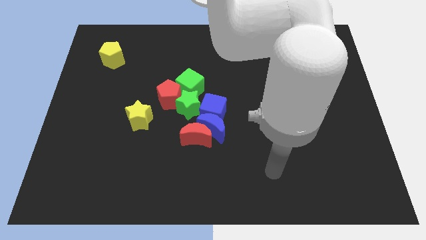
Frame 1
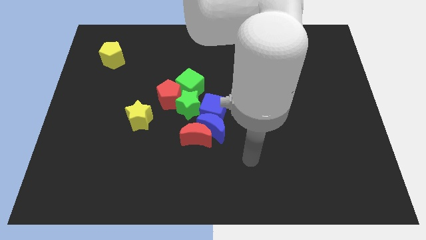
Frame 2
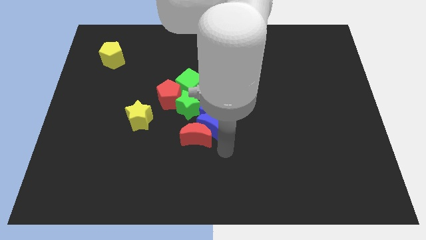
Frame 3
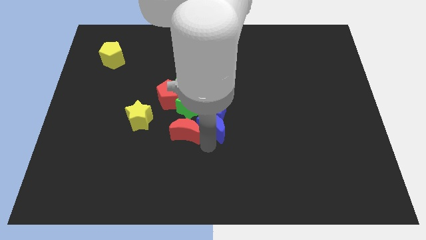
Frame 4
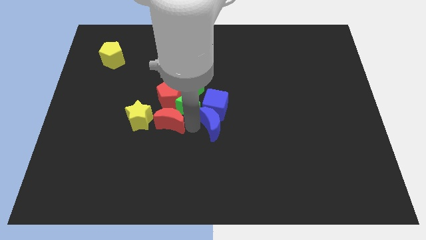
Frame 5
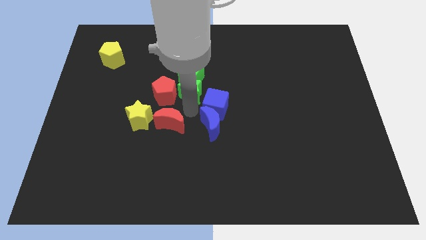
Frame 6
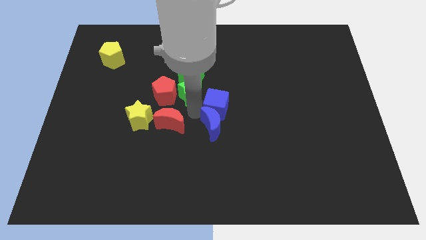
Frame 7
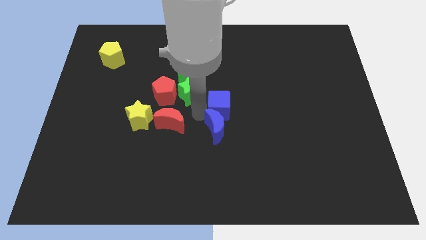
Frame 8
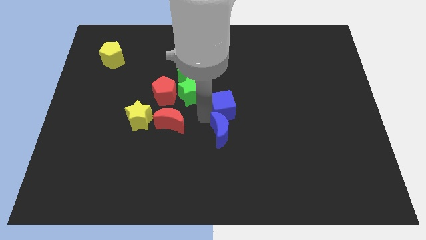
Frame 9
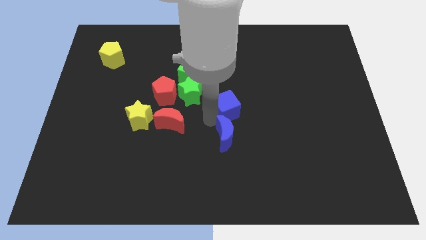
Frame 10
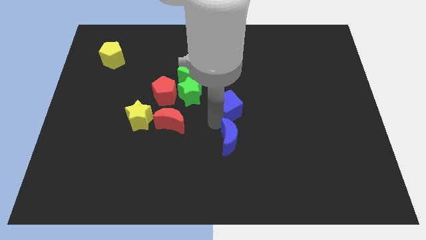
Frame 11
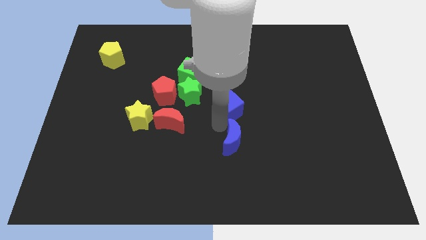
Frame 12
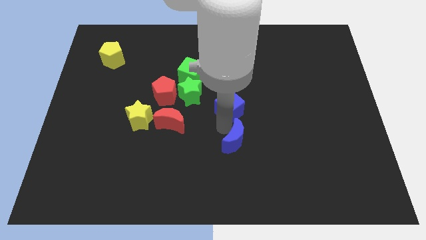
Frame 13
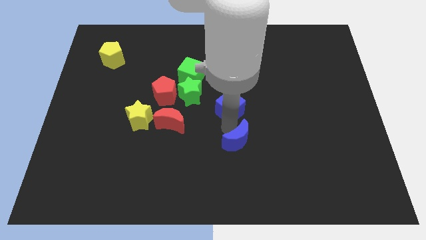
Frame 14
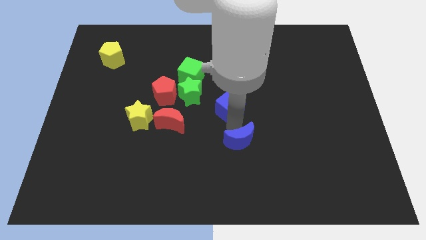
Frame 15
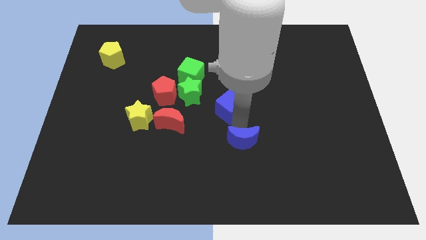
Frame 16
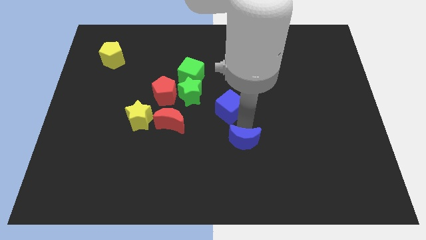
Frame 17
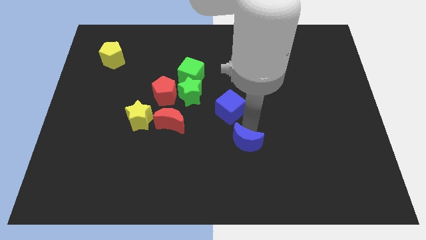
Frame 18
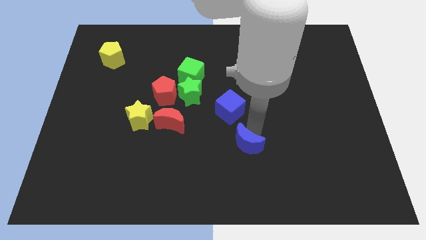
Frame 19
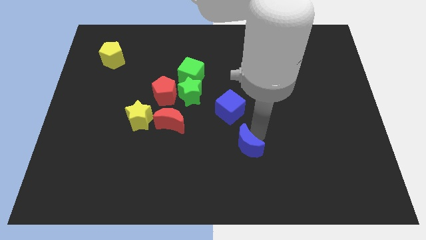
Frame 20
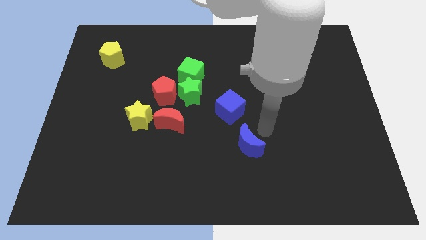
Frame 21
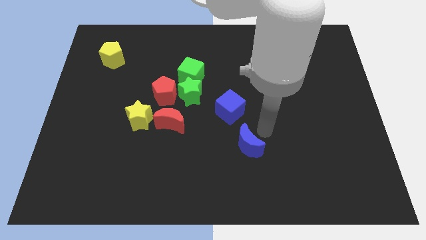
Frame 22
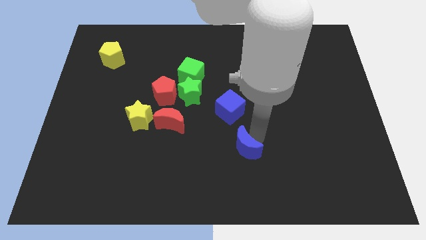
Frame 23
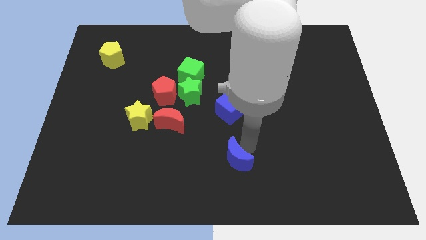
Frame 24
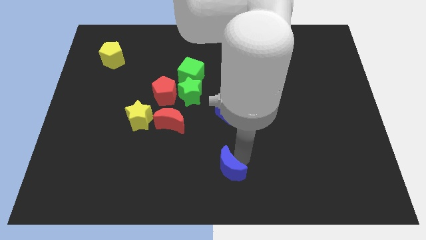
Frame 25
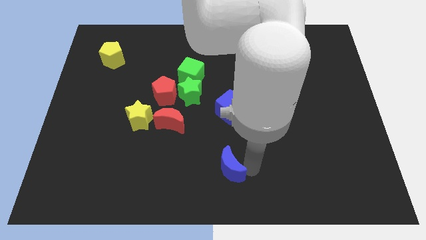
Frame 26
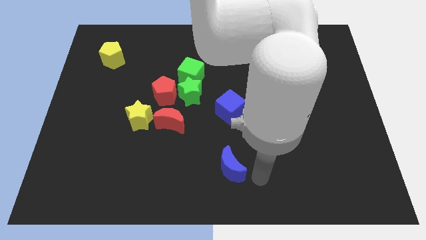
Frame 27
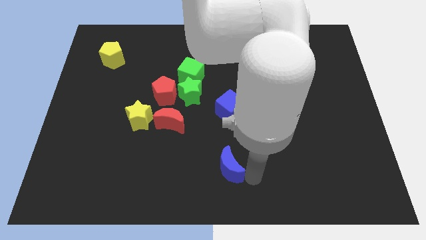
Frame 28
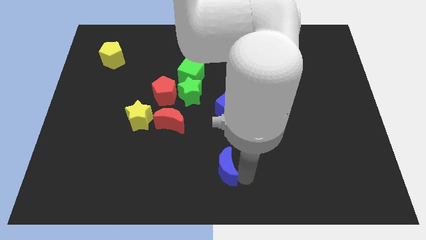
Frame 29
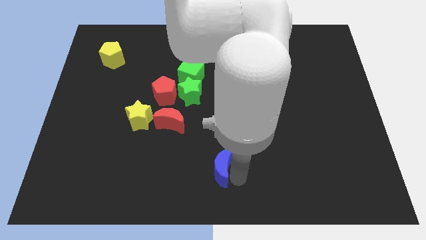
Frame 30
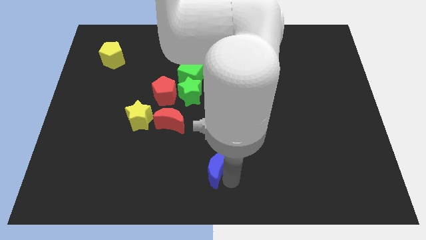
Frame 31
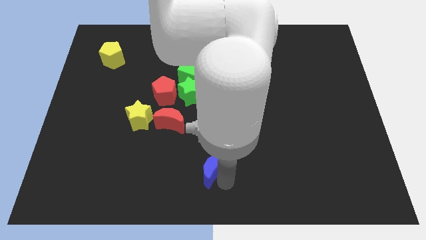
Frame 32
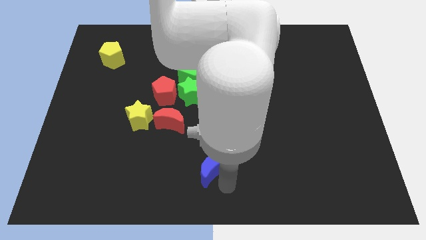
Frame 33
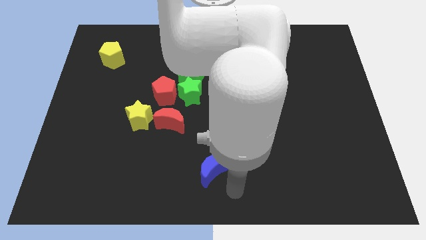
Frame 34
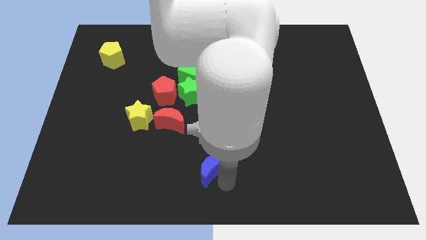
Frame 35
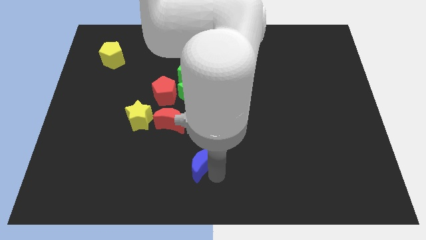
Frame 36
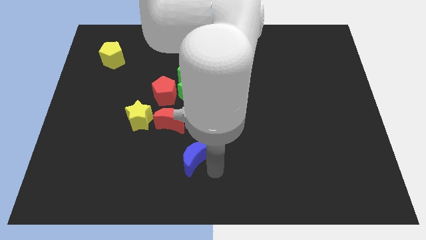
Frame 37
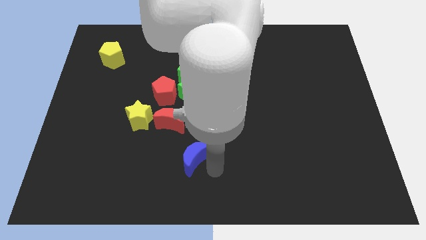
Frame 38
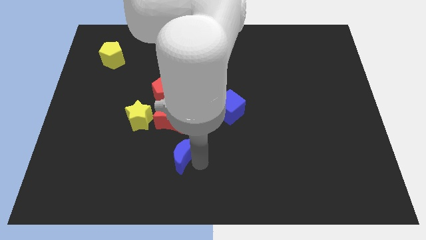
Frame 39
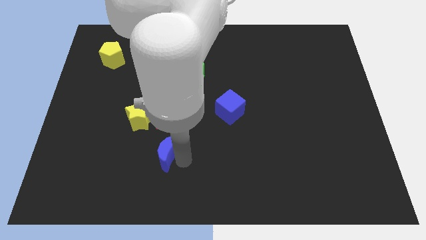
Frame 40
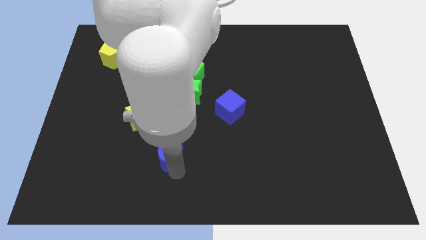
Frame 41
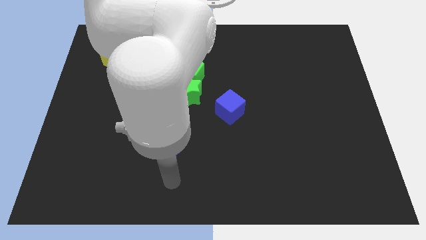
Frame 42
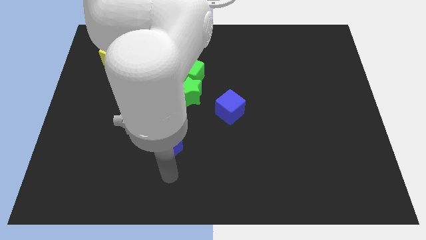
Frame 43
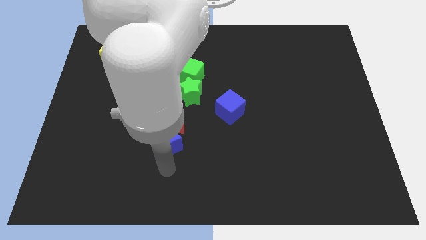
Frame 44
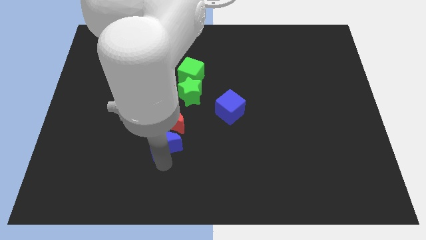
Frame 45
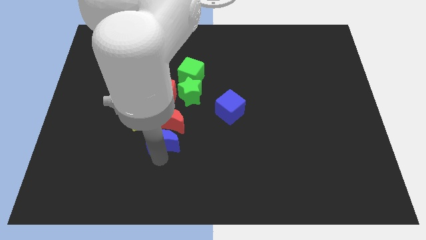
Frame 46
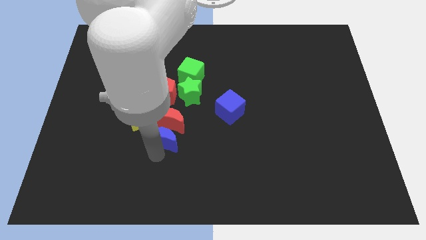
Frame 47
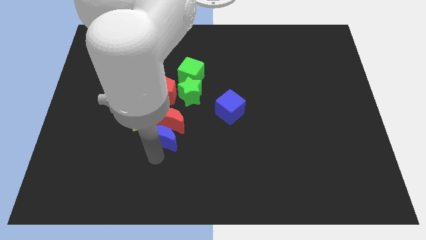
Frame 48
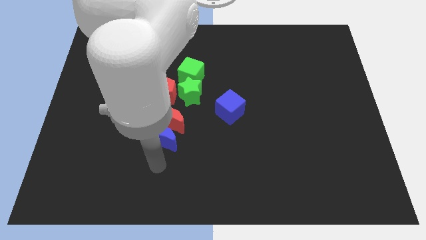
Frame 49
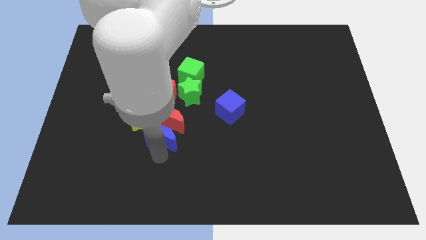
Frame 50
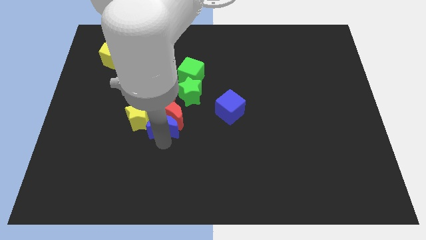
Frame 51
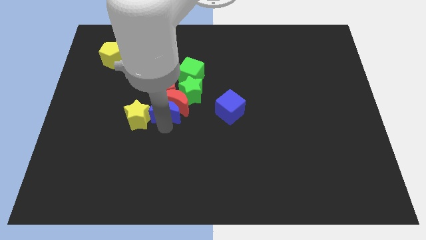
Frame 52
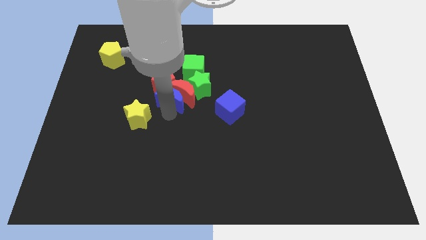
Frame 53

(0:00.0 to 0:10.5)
put the blue moon close to the red pentagon

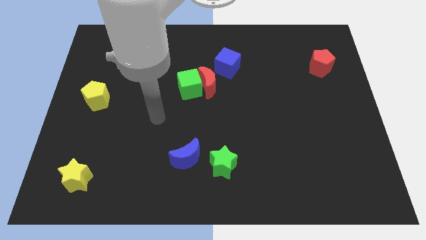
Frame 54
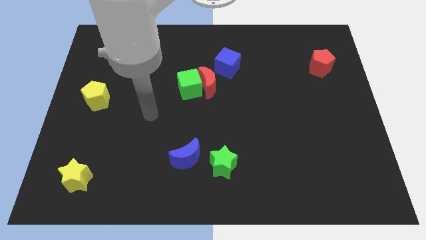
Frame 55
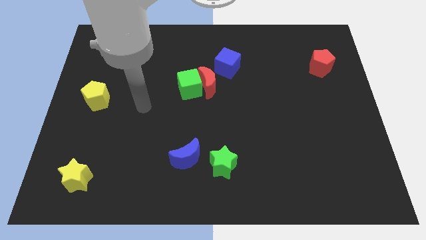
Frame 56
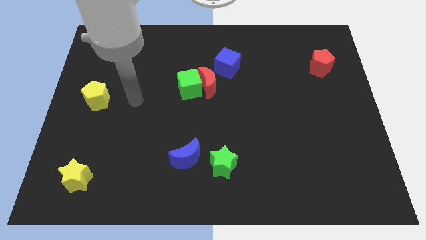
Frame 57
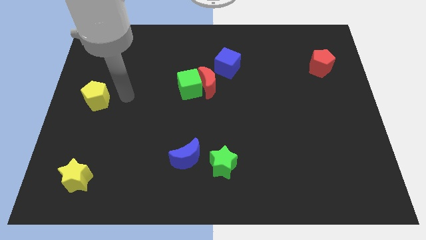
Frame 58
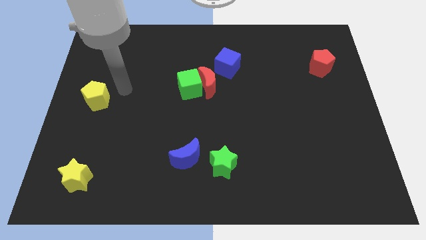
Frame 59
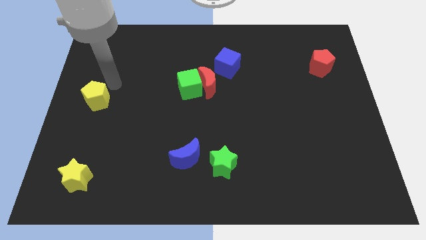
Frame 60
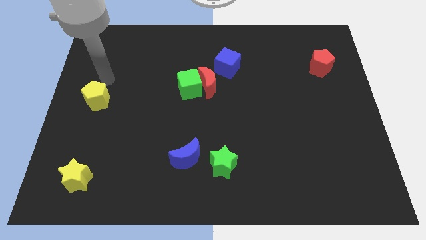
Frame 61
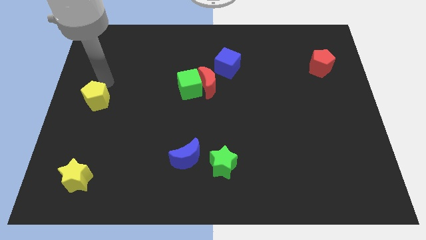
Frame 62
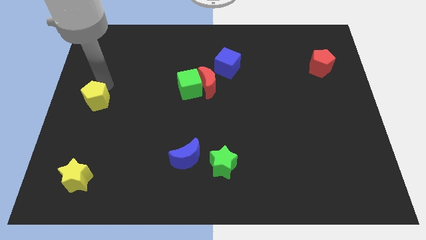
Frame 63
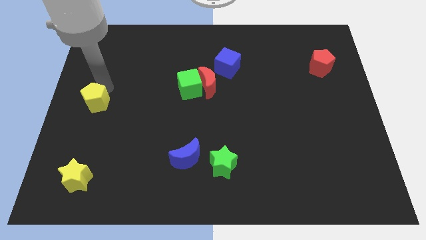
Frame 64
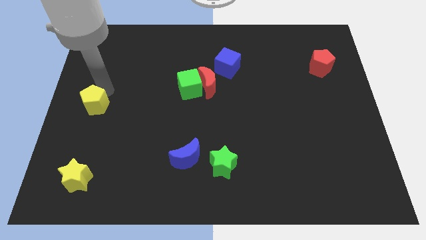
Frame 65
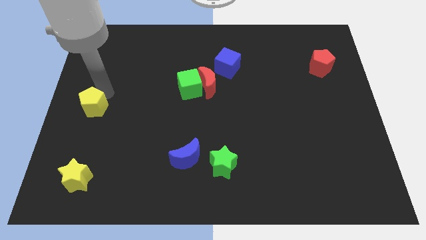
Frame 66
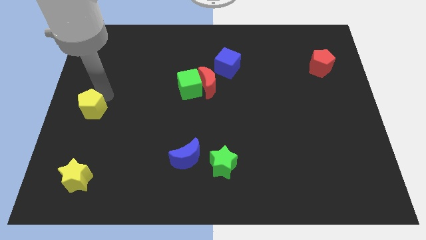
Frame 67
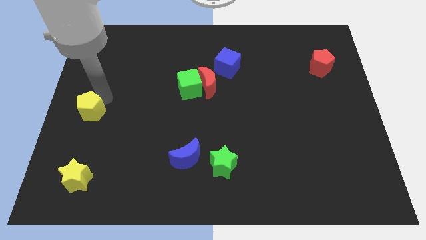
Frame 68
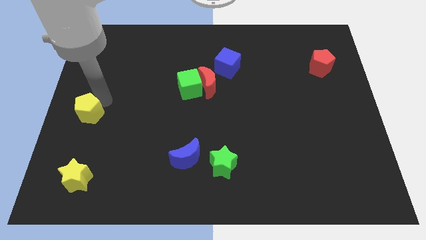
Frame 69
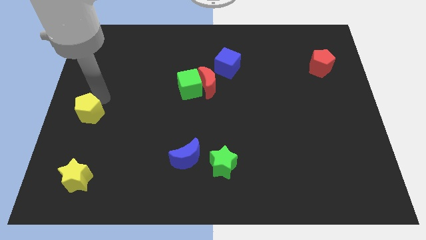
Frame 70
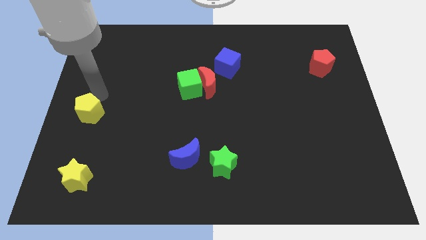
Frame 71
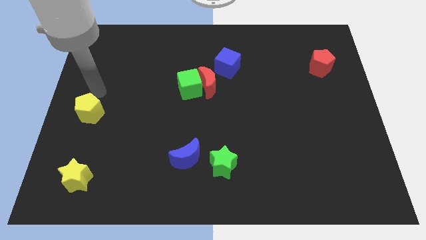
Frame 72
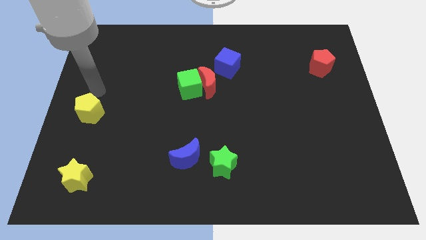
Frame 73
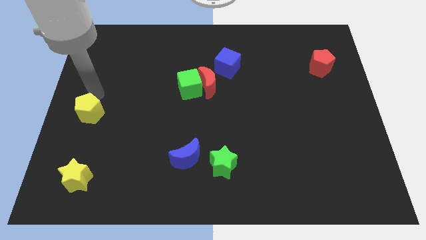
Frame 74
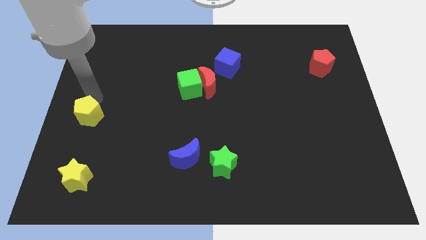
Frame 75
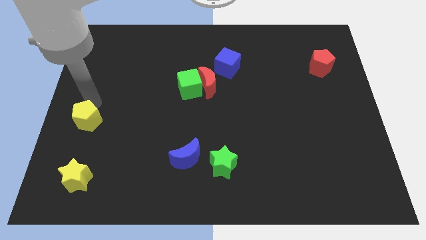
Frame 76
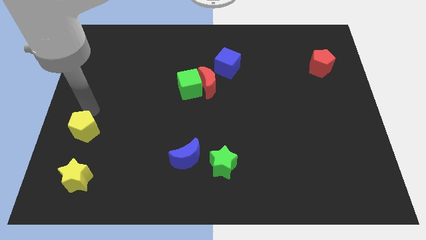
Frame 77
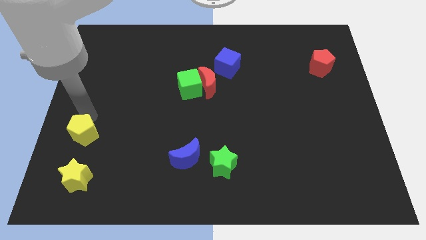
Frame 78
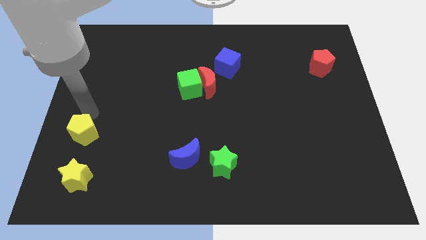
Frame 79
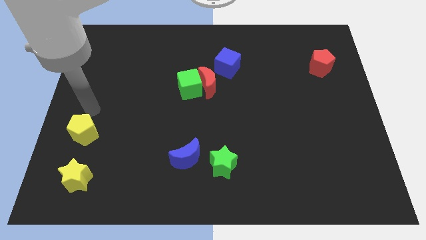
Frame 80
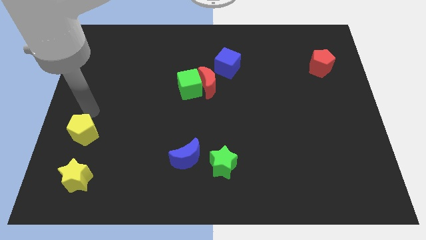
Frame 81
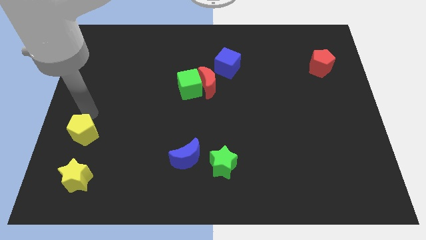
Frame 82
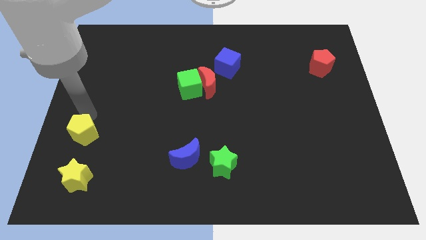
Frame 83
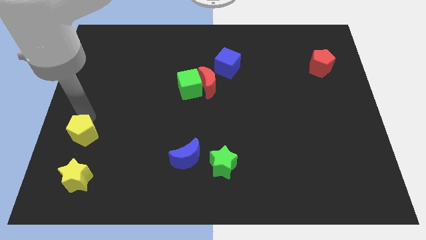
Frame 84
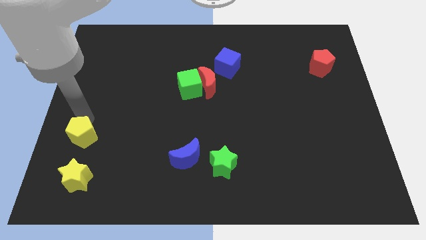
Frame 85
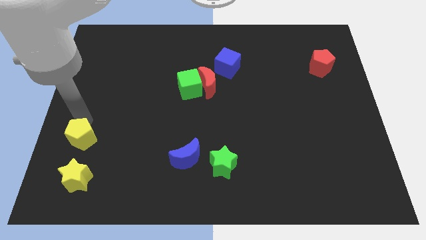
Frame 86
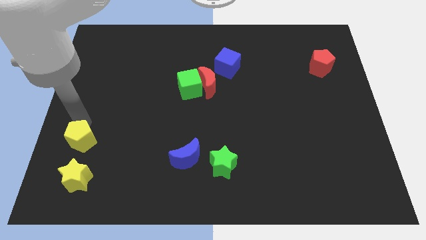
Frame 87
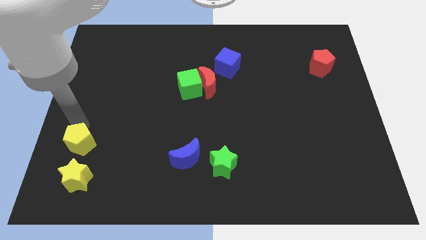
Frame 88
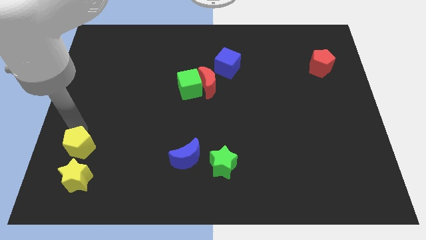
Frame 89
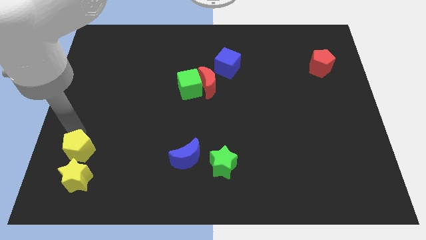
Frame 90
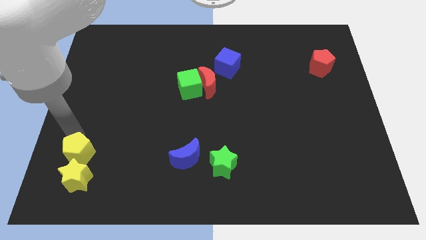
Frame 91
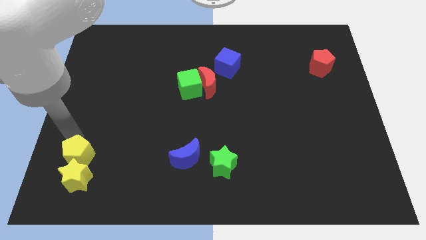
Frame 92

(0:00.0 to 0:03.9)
move the yellow pentagon close to the yellow star
